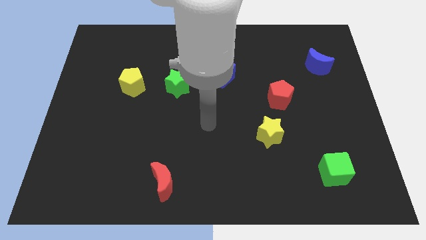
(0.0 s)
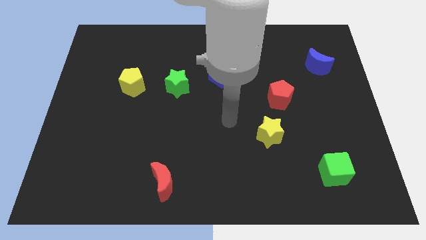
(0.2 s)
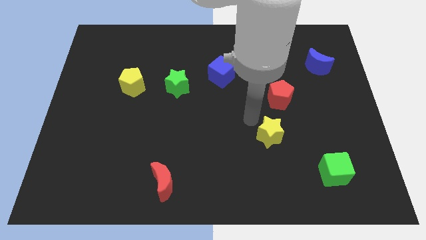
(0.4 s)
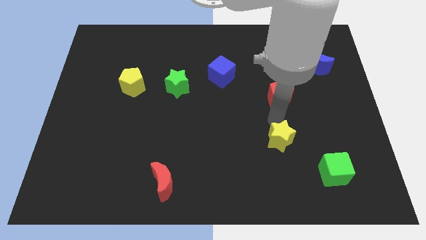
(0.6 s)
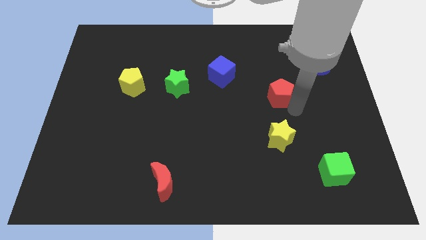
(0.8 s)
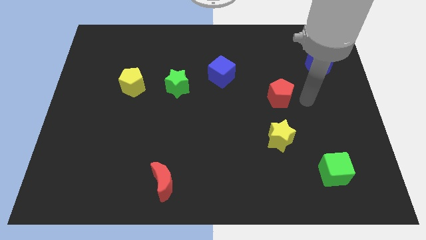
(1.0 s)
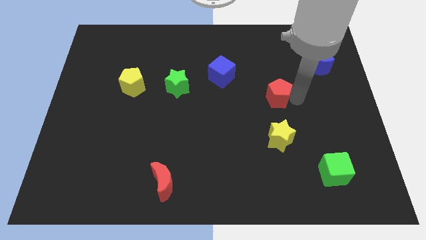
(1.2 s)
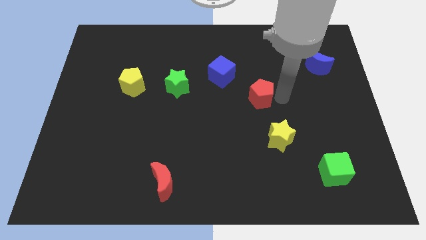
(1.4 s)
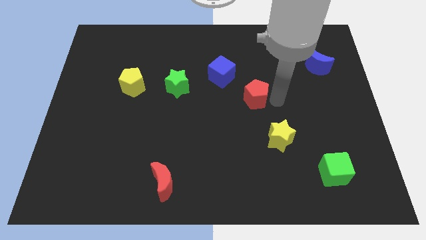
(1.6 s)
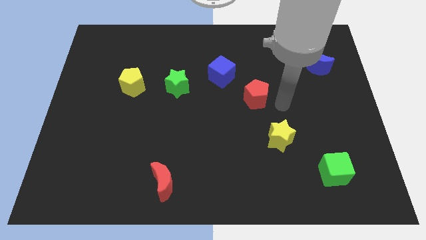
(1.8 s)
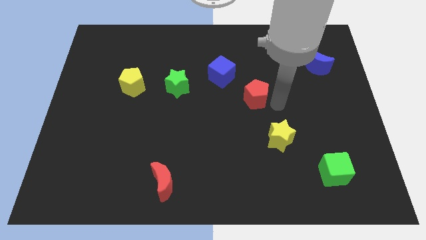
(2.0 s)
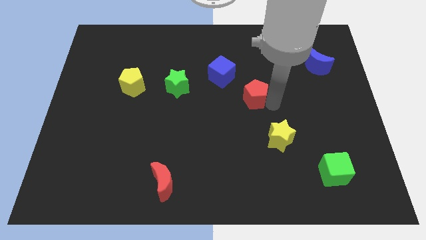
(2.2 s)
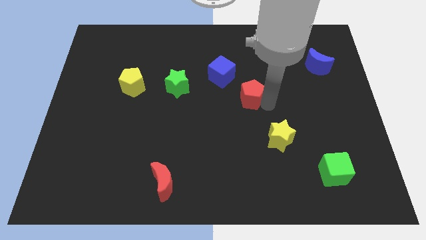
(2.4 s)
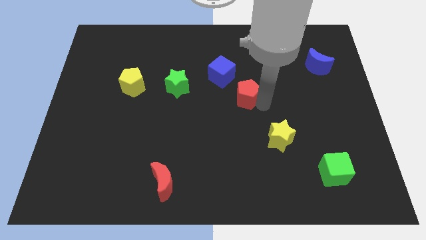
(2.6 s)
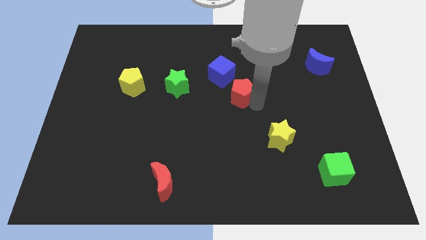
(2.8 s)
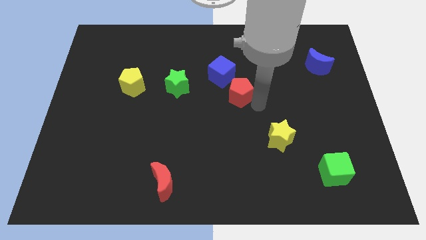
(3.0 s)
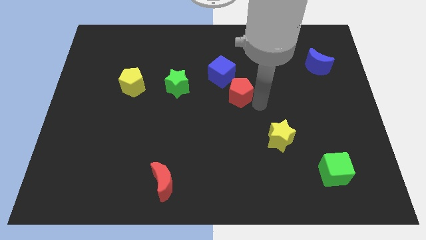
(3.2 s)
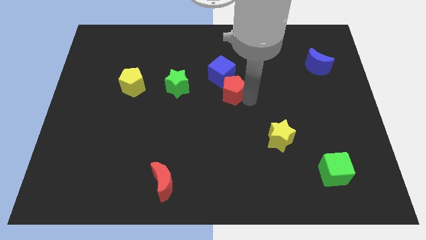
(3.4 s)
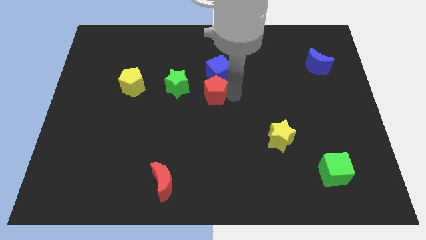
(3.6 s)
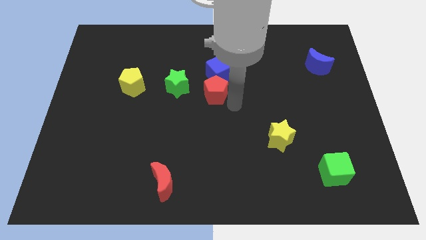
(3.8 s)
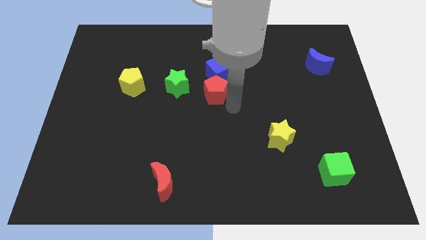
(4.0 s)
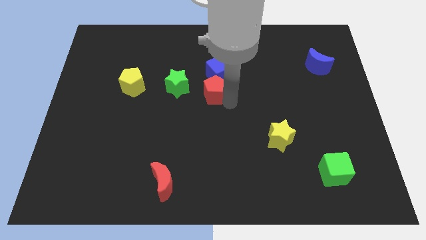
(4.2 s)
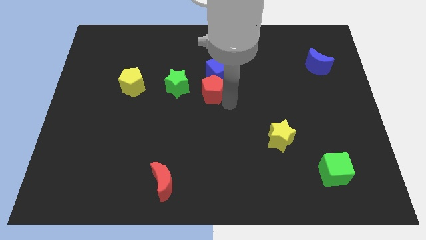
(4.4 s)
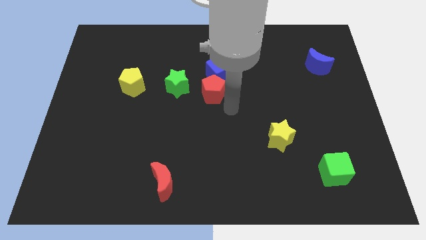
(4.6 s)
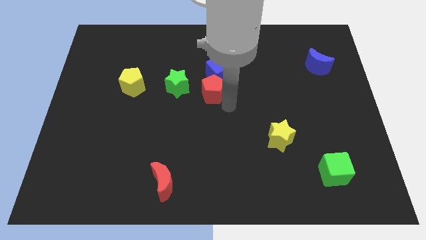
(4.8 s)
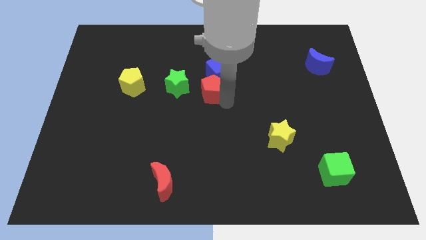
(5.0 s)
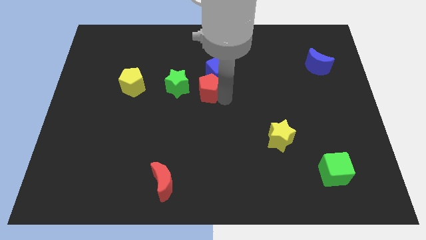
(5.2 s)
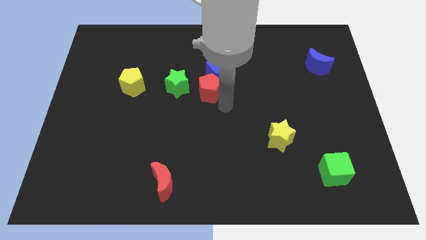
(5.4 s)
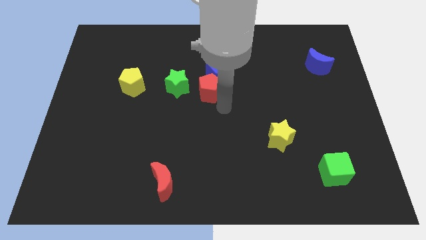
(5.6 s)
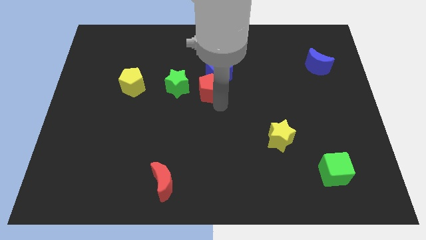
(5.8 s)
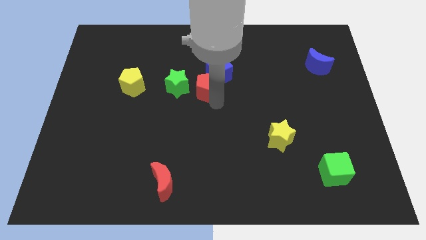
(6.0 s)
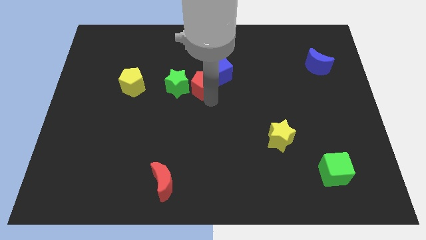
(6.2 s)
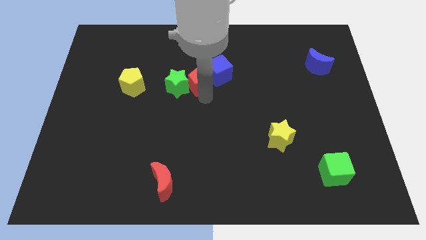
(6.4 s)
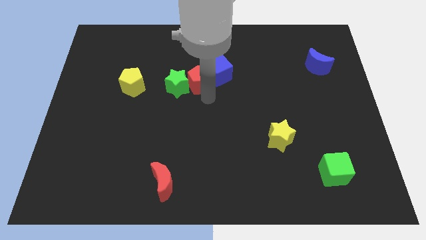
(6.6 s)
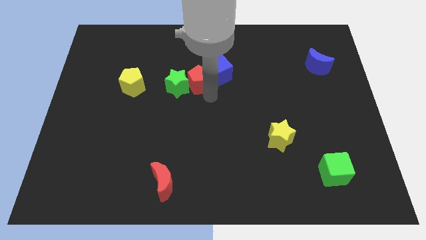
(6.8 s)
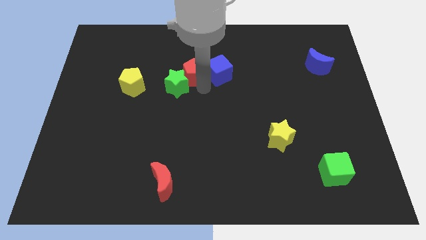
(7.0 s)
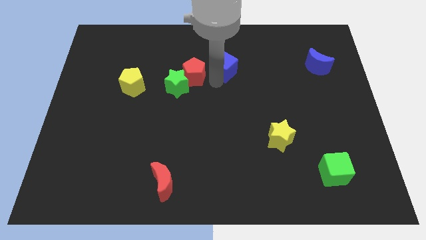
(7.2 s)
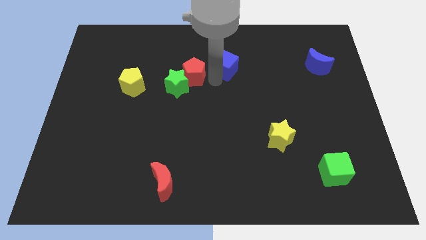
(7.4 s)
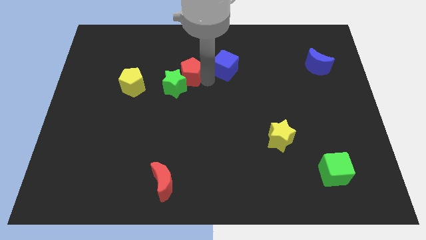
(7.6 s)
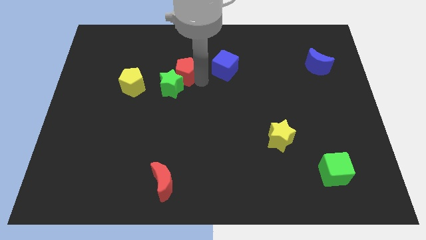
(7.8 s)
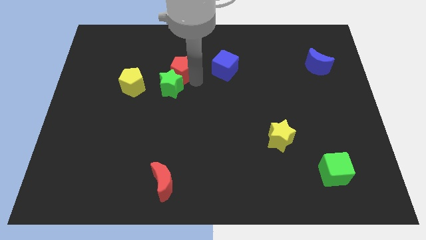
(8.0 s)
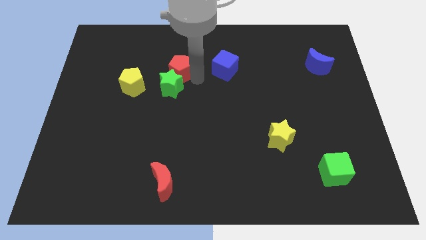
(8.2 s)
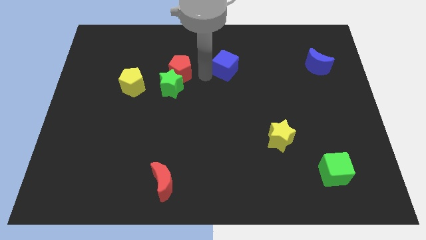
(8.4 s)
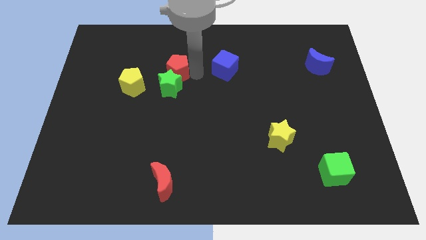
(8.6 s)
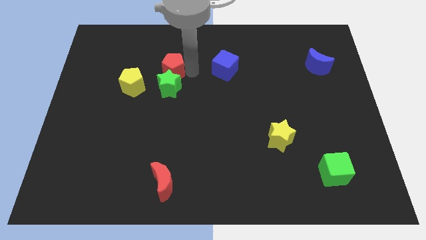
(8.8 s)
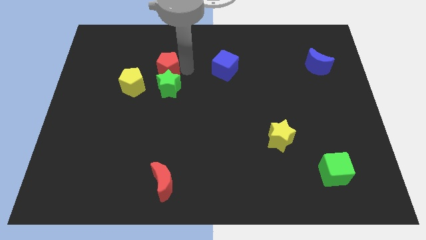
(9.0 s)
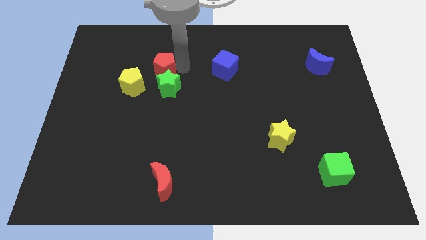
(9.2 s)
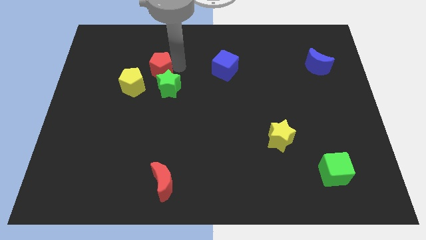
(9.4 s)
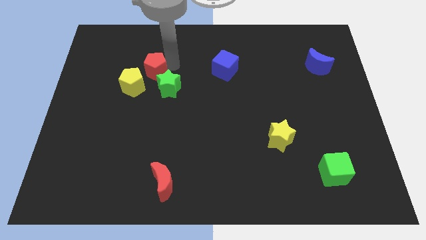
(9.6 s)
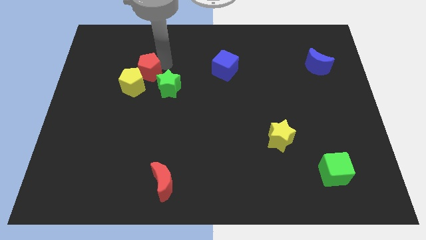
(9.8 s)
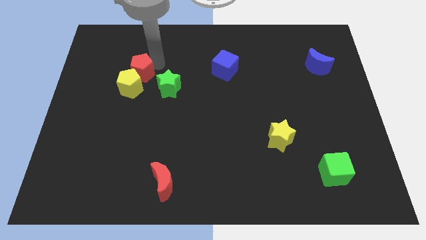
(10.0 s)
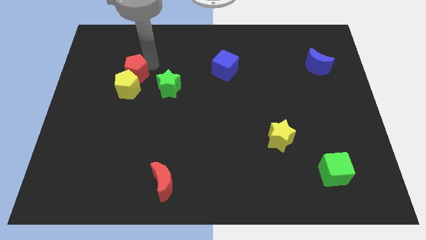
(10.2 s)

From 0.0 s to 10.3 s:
put the red pentagon diagonally up and to the left of the yellow pentagon
